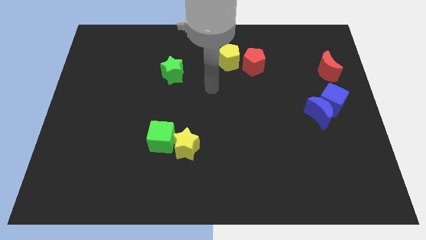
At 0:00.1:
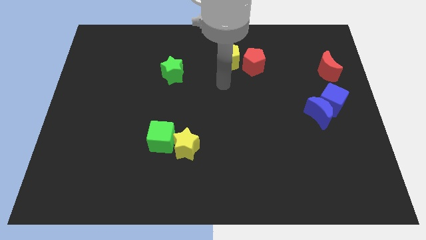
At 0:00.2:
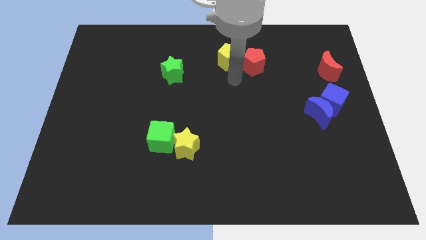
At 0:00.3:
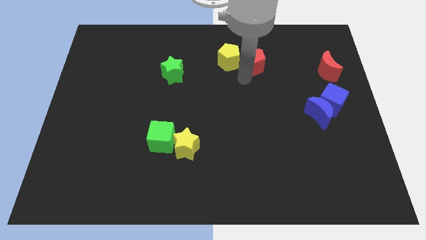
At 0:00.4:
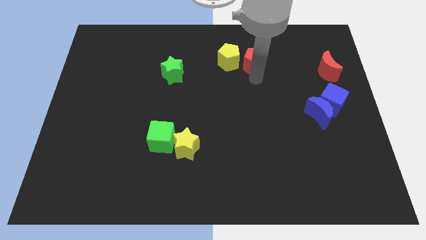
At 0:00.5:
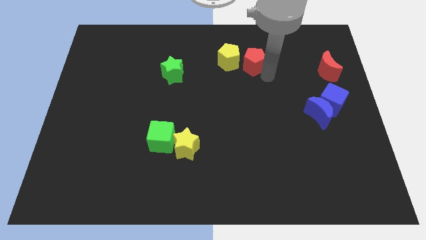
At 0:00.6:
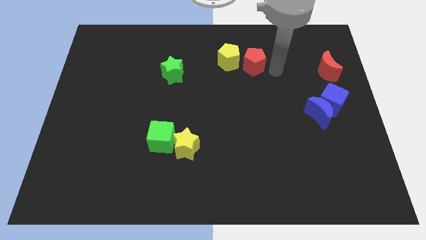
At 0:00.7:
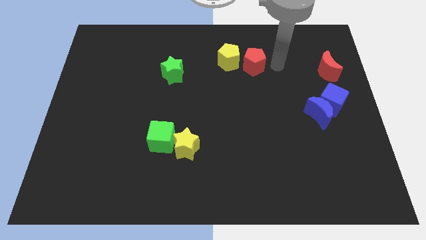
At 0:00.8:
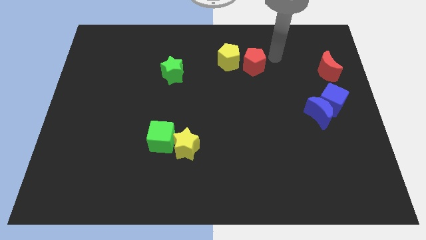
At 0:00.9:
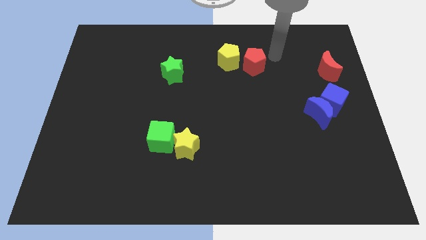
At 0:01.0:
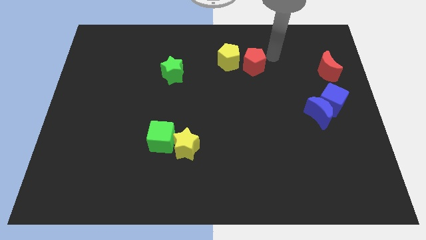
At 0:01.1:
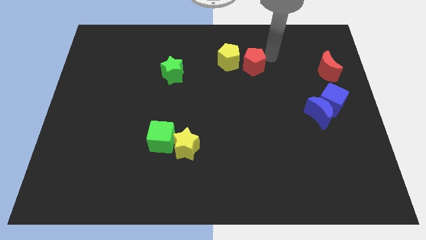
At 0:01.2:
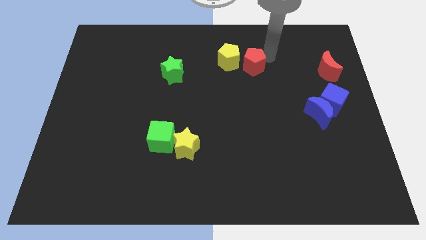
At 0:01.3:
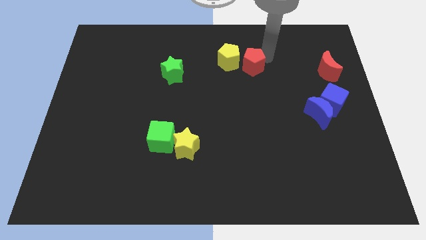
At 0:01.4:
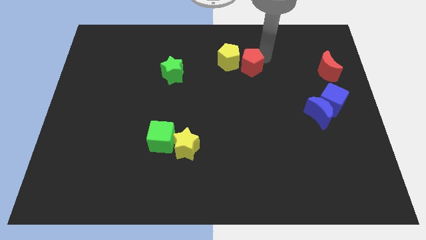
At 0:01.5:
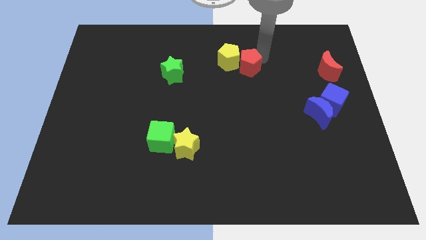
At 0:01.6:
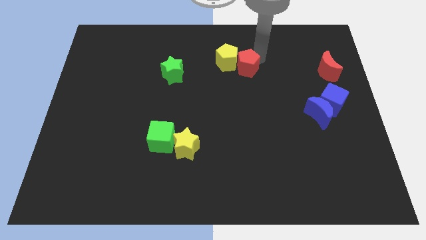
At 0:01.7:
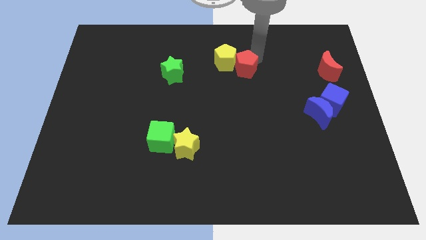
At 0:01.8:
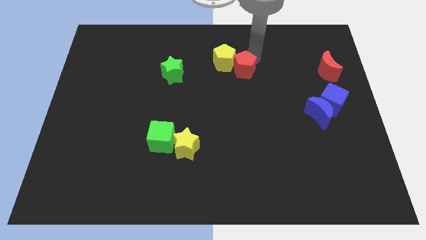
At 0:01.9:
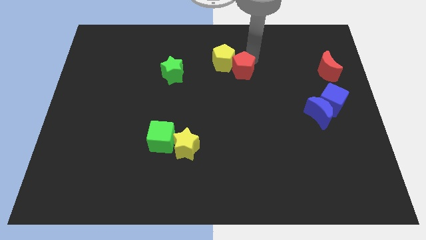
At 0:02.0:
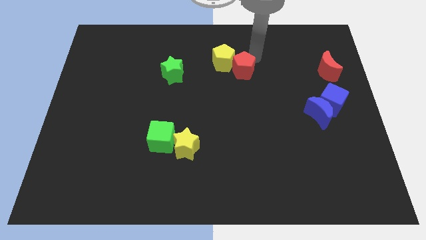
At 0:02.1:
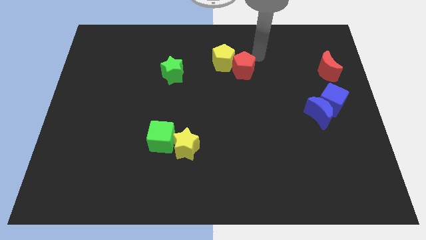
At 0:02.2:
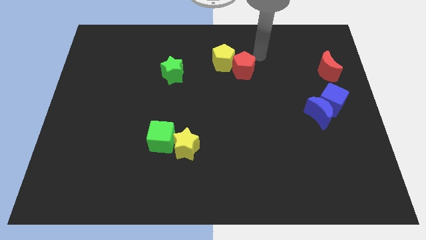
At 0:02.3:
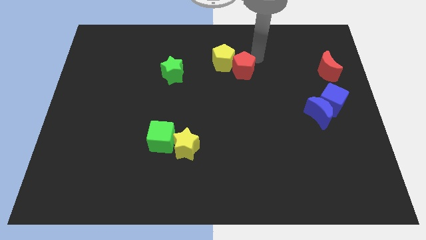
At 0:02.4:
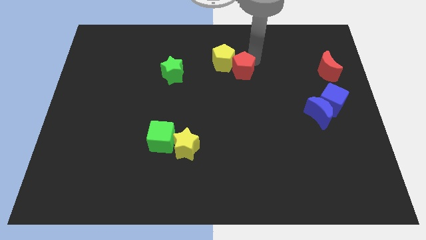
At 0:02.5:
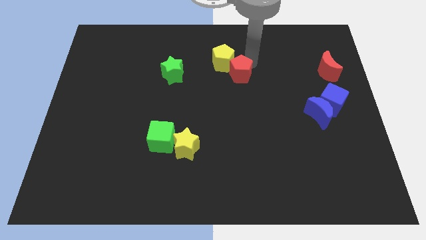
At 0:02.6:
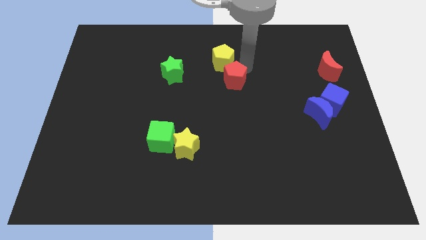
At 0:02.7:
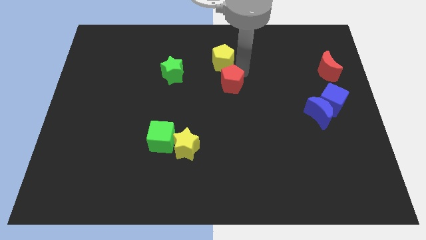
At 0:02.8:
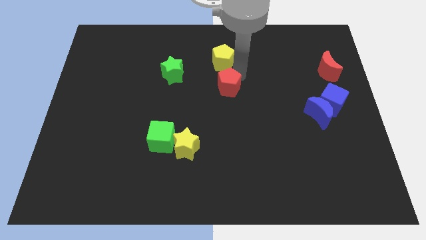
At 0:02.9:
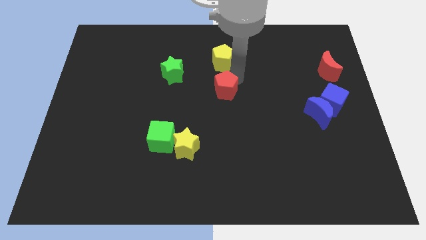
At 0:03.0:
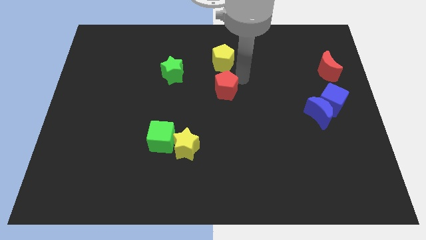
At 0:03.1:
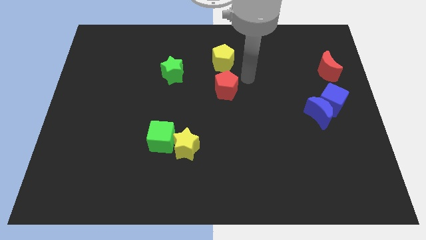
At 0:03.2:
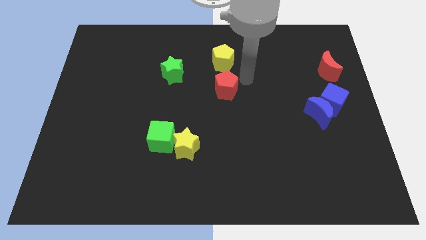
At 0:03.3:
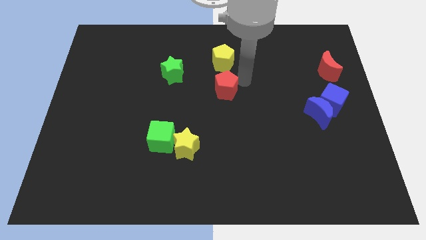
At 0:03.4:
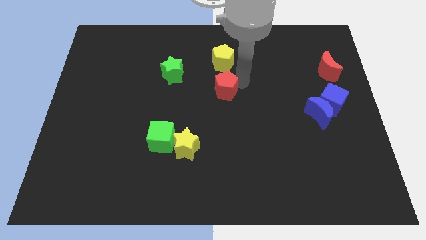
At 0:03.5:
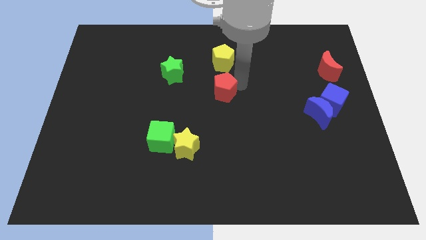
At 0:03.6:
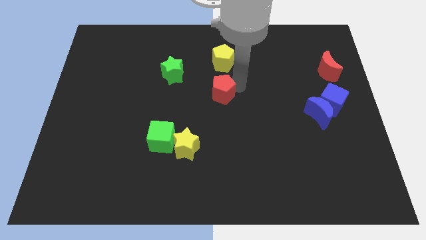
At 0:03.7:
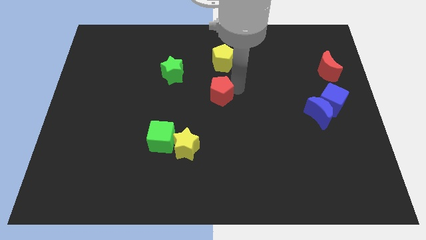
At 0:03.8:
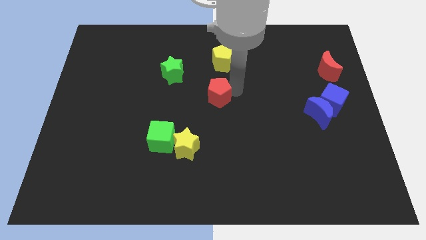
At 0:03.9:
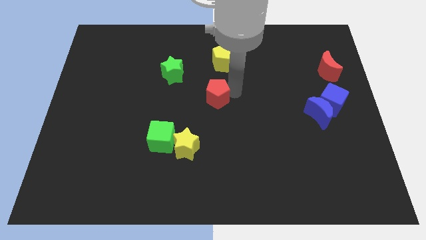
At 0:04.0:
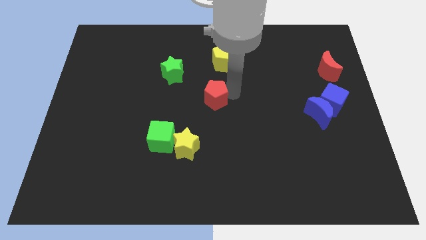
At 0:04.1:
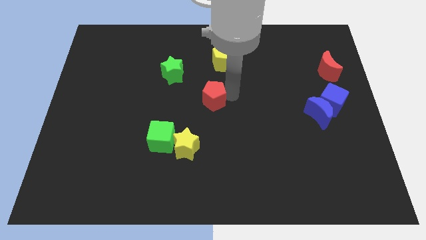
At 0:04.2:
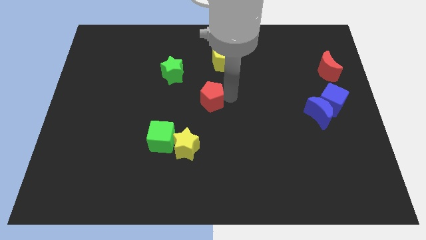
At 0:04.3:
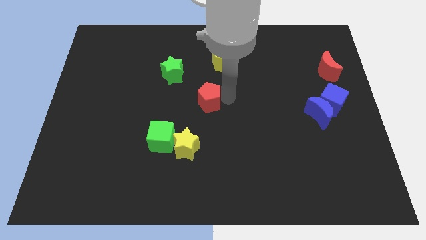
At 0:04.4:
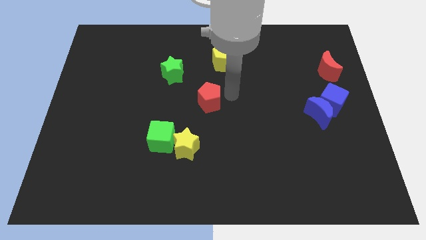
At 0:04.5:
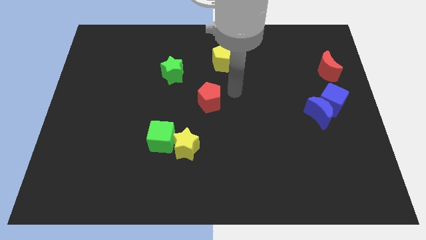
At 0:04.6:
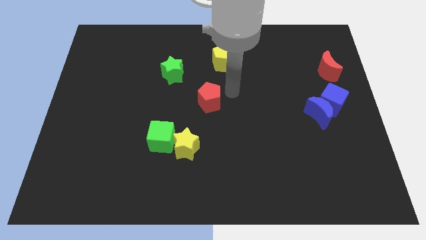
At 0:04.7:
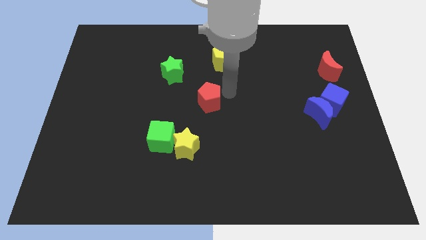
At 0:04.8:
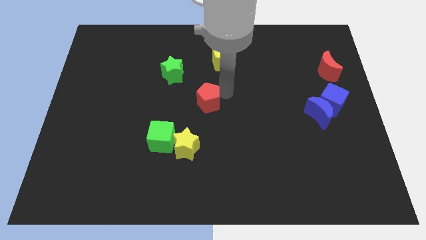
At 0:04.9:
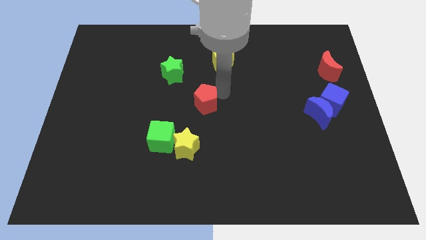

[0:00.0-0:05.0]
move the red pentagon to the top of the yellow star

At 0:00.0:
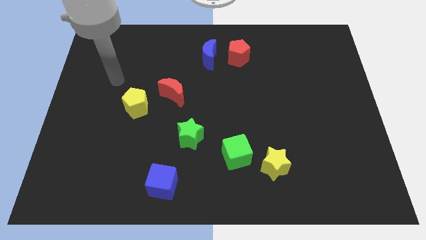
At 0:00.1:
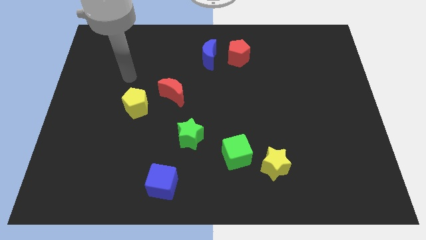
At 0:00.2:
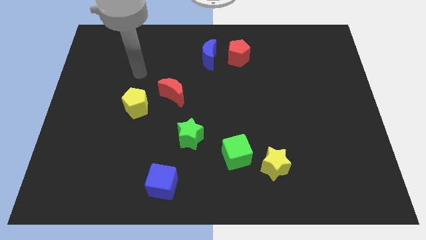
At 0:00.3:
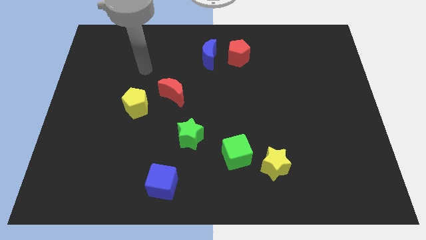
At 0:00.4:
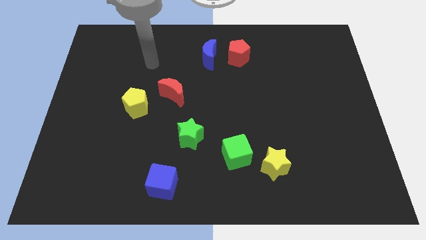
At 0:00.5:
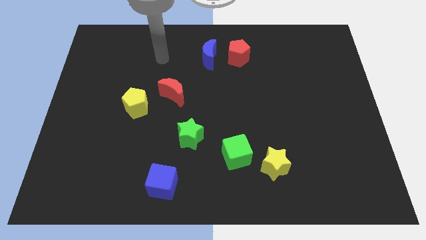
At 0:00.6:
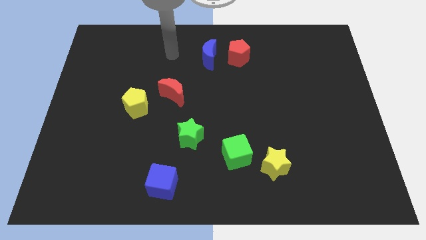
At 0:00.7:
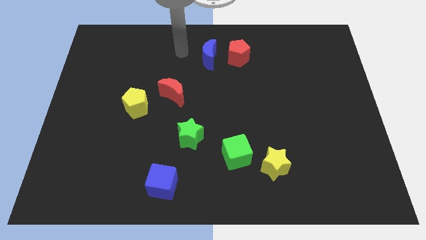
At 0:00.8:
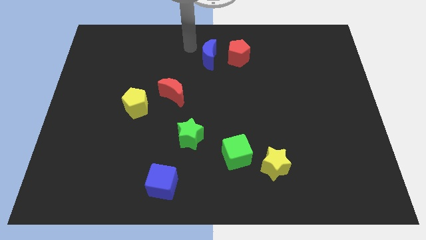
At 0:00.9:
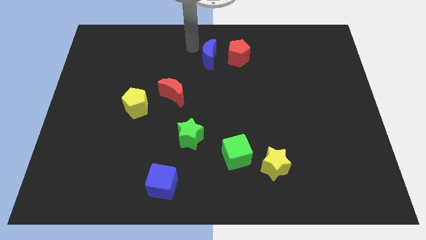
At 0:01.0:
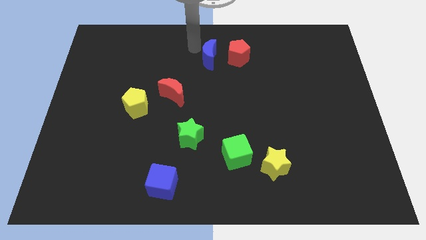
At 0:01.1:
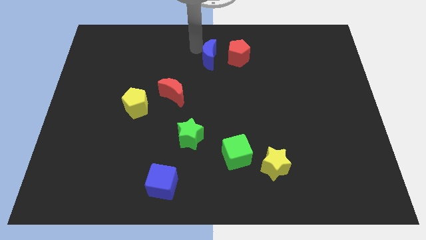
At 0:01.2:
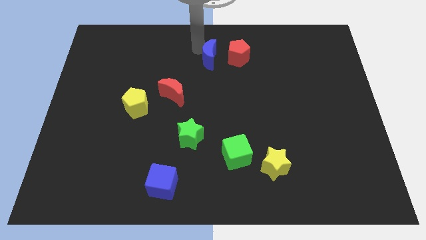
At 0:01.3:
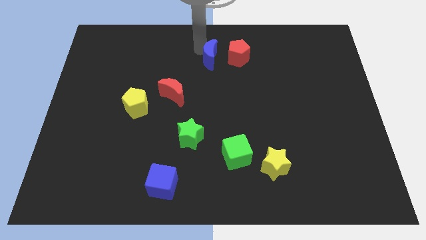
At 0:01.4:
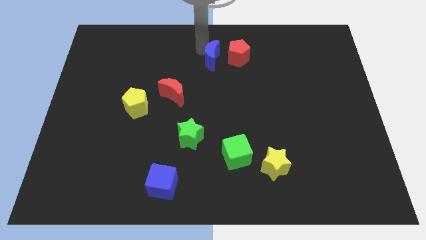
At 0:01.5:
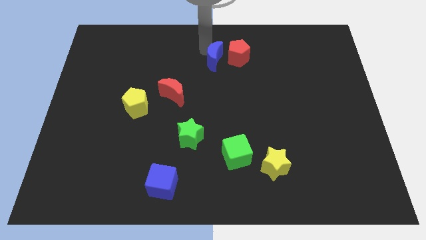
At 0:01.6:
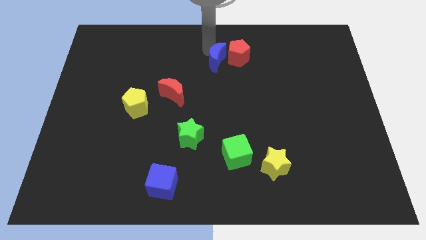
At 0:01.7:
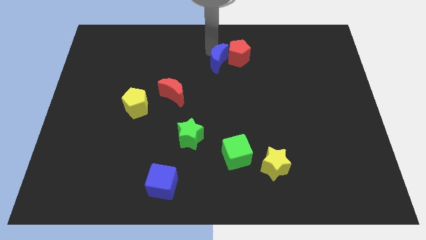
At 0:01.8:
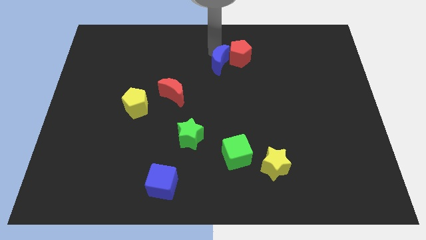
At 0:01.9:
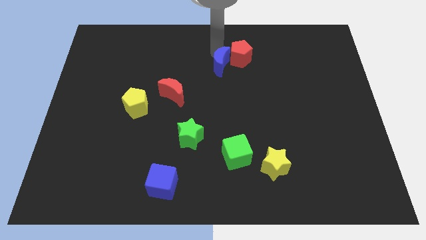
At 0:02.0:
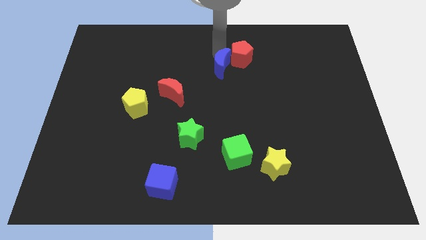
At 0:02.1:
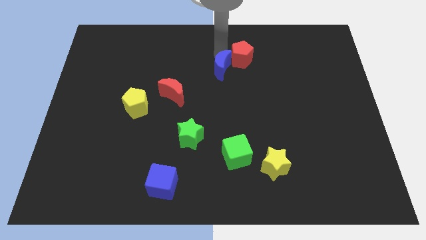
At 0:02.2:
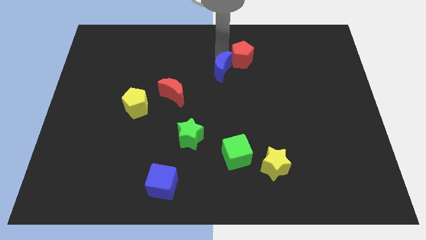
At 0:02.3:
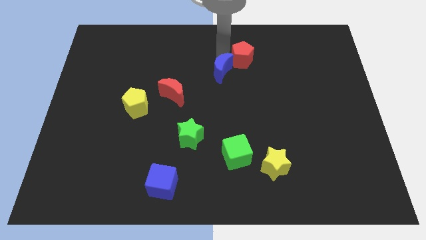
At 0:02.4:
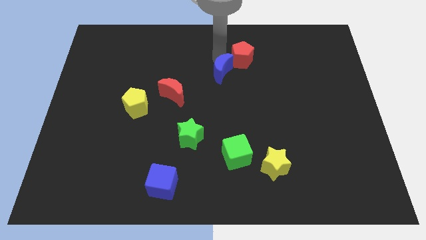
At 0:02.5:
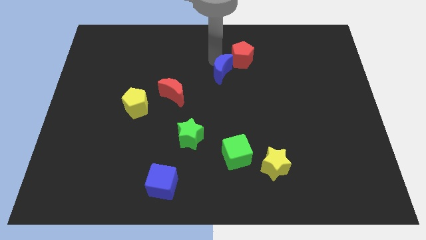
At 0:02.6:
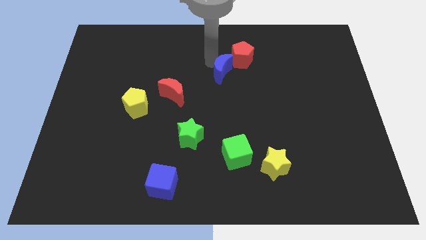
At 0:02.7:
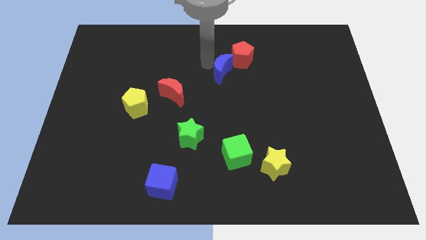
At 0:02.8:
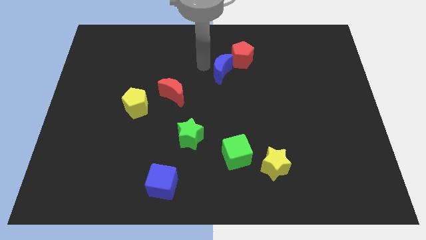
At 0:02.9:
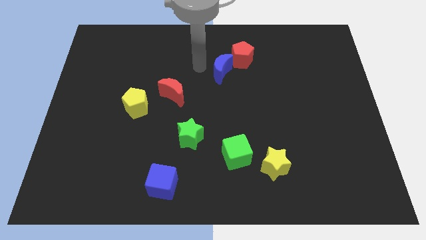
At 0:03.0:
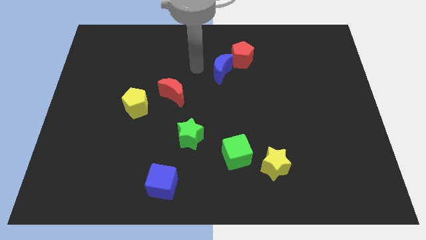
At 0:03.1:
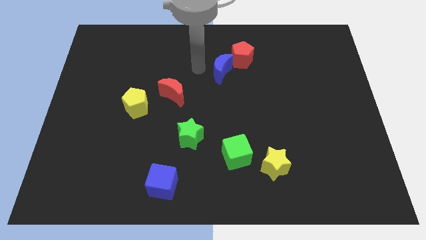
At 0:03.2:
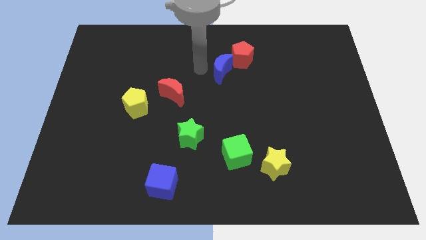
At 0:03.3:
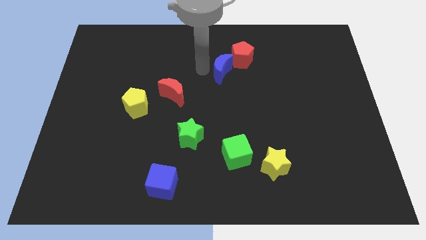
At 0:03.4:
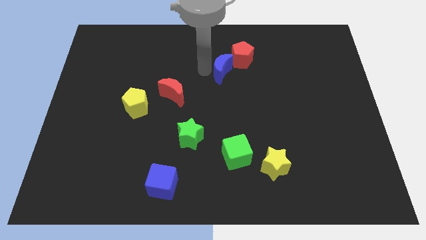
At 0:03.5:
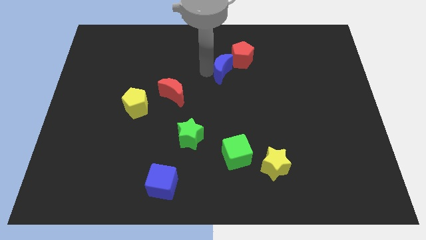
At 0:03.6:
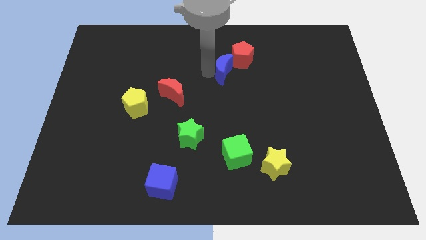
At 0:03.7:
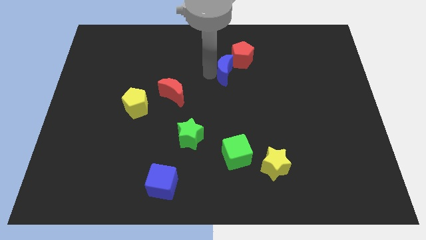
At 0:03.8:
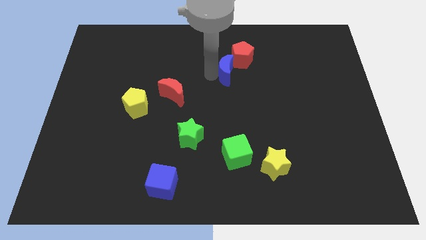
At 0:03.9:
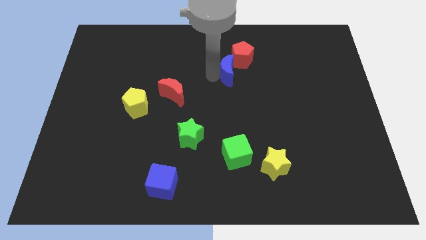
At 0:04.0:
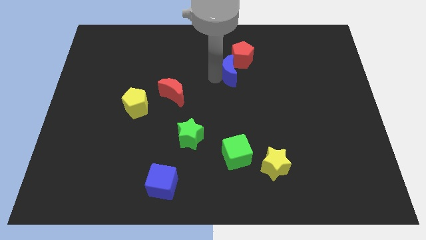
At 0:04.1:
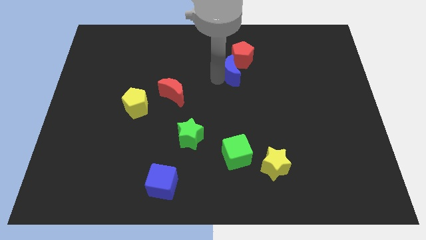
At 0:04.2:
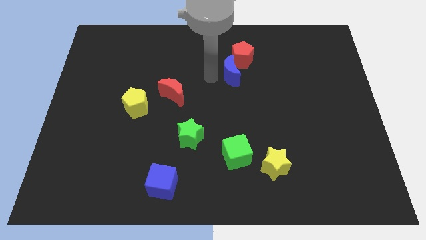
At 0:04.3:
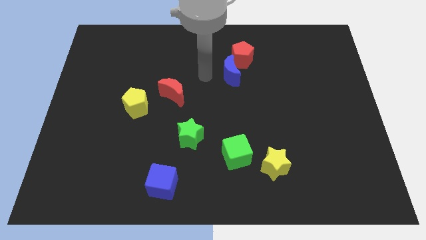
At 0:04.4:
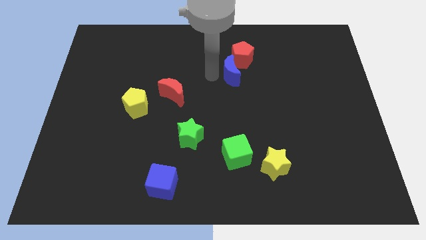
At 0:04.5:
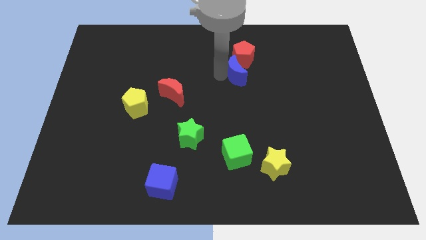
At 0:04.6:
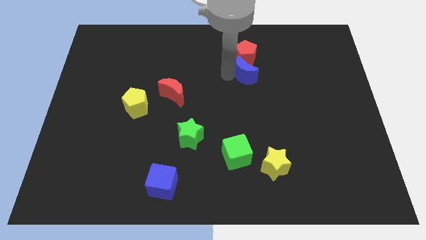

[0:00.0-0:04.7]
put the blue moon diagonally down and to the right of the red pentagon
